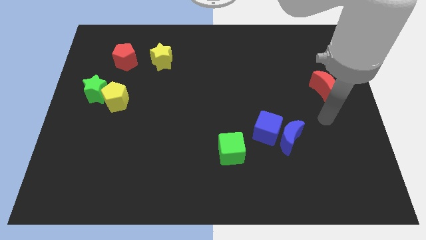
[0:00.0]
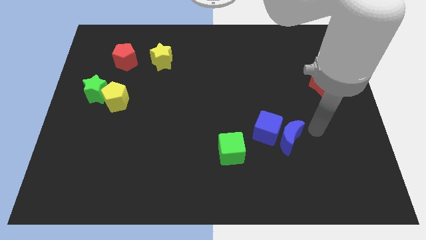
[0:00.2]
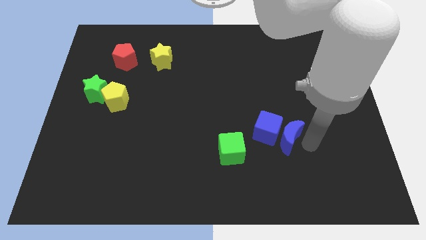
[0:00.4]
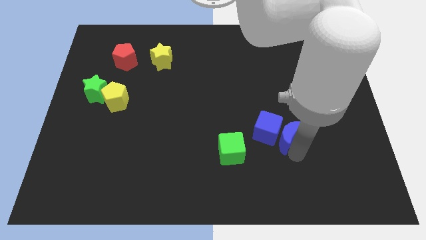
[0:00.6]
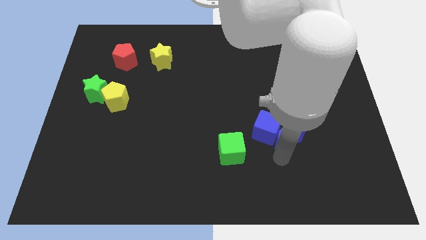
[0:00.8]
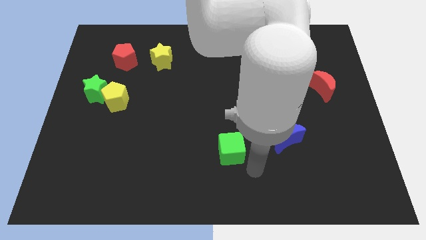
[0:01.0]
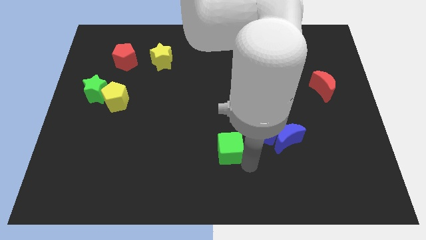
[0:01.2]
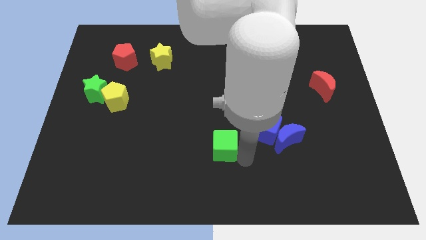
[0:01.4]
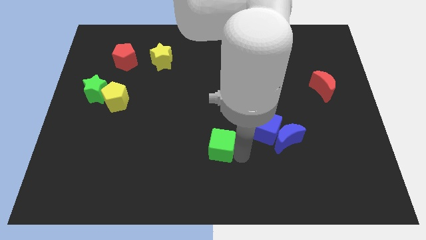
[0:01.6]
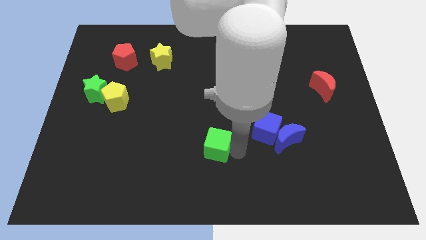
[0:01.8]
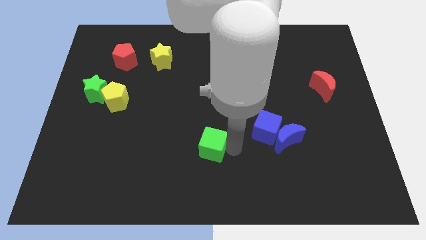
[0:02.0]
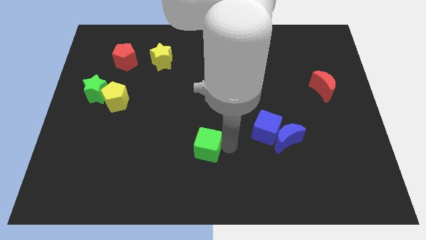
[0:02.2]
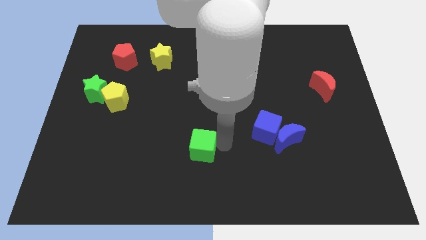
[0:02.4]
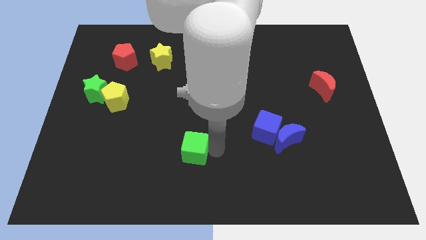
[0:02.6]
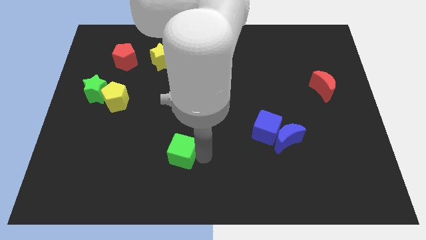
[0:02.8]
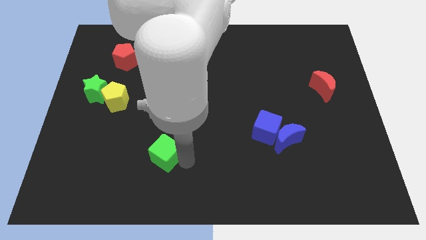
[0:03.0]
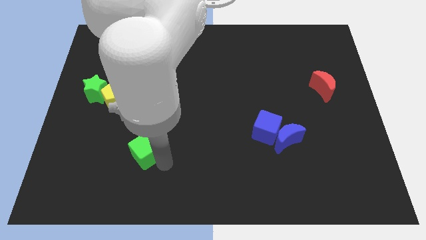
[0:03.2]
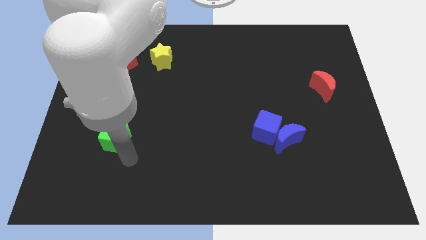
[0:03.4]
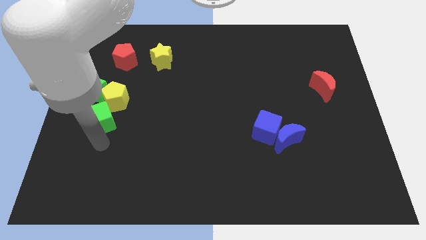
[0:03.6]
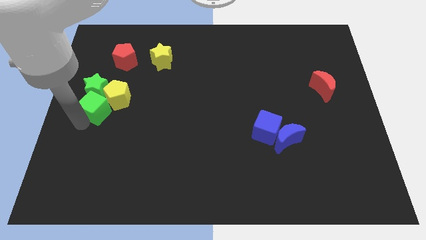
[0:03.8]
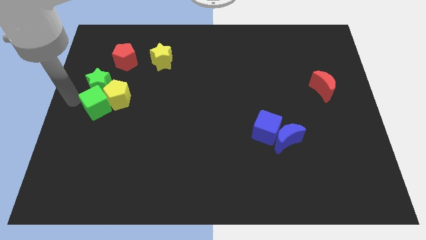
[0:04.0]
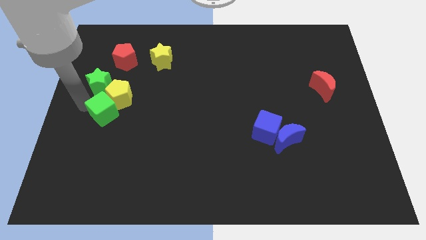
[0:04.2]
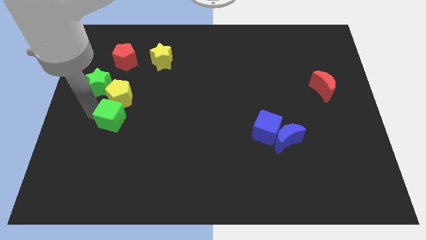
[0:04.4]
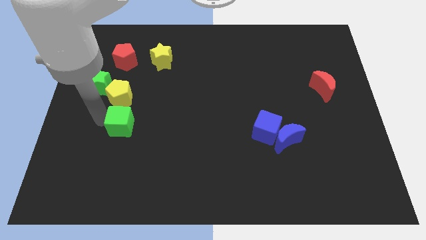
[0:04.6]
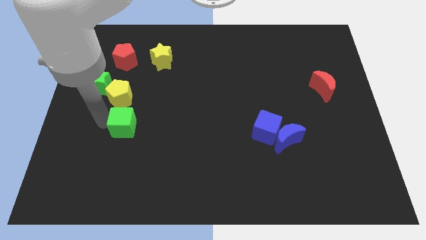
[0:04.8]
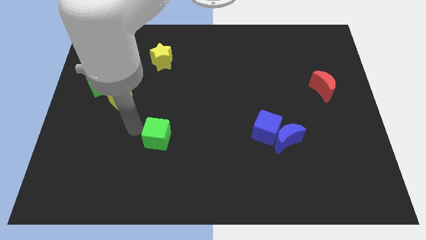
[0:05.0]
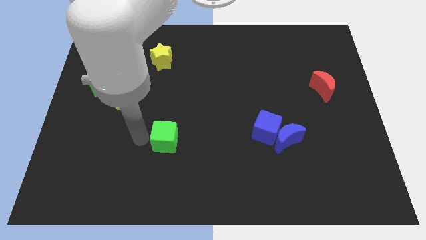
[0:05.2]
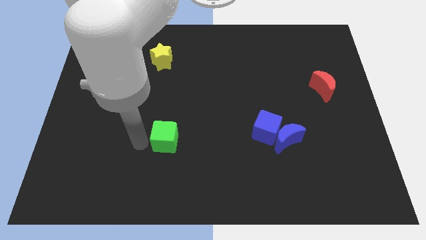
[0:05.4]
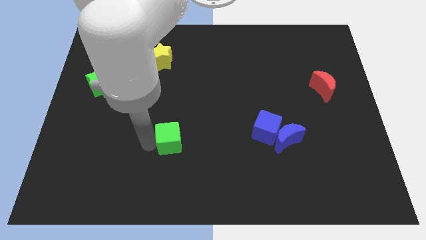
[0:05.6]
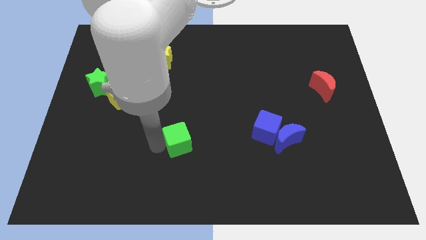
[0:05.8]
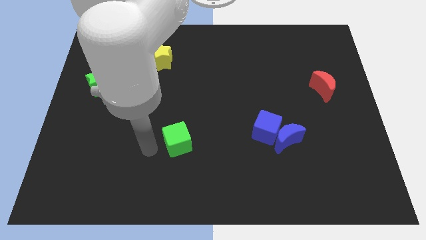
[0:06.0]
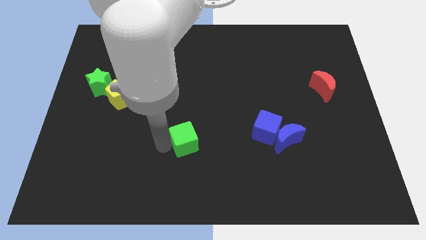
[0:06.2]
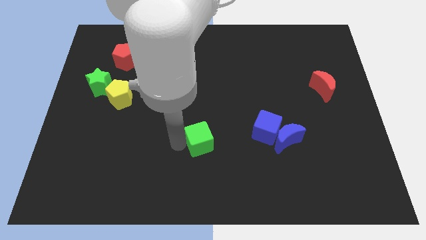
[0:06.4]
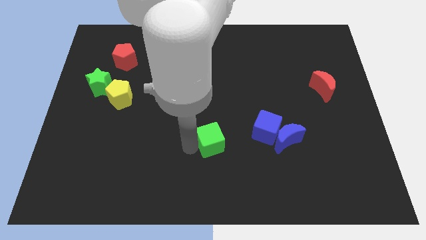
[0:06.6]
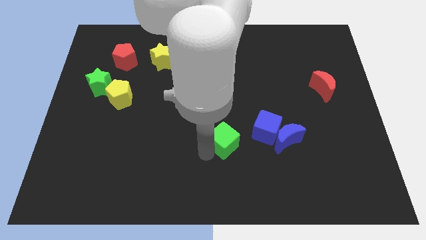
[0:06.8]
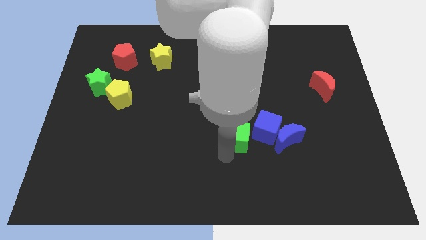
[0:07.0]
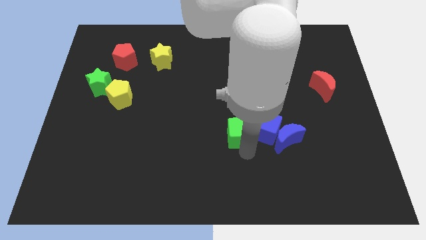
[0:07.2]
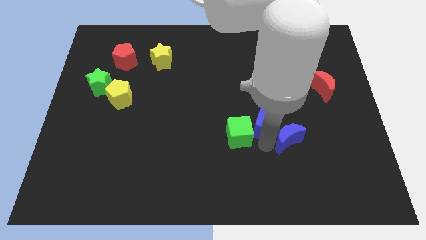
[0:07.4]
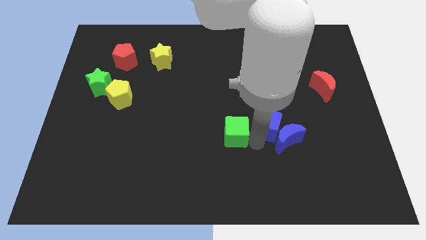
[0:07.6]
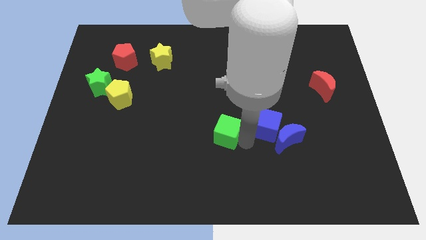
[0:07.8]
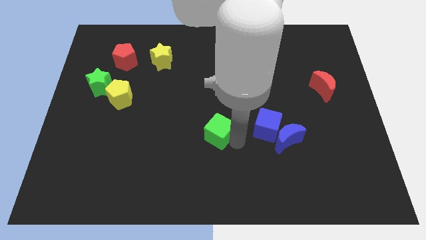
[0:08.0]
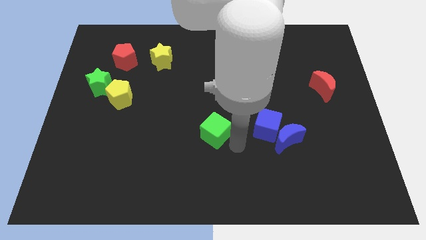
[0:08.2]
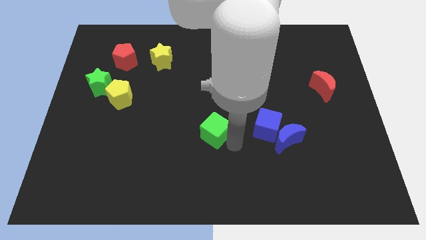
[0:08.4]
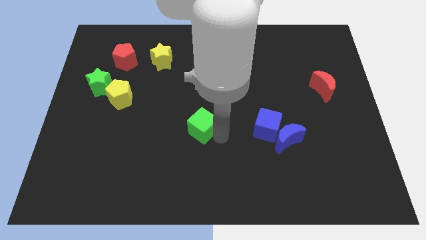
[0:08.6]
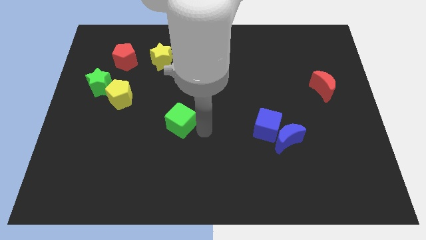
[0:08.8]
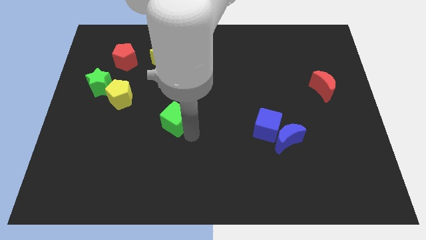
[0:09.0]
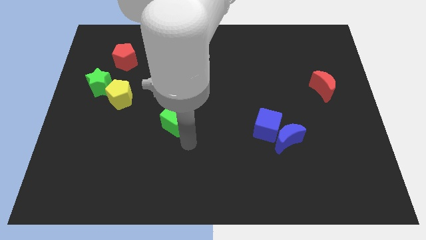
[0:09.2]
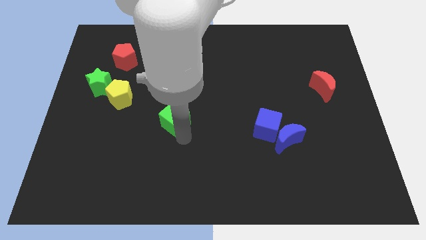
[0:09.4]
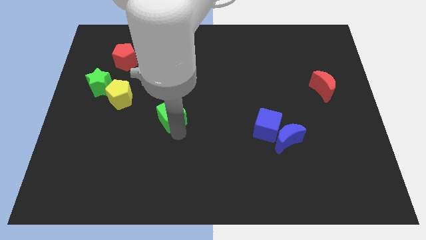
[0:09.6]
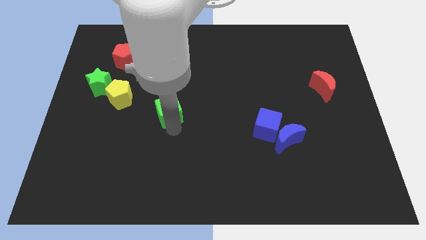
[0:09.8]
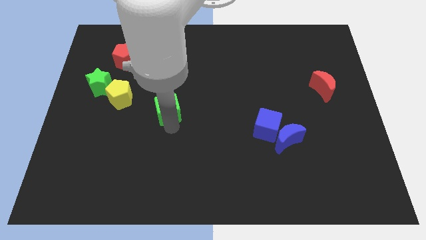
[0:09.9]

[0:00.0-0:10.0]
move the green cube just right of the yellow pentagon

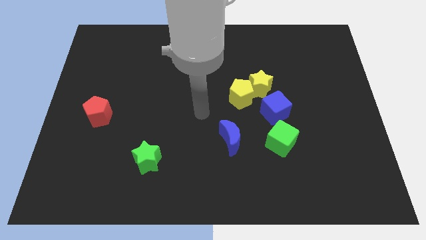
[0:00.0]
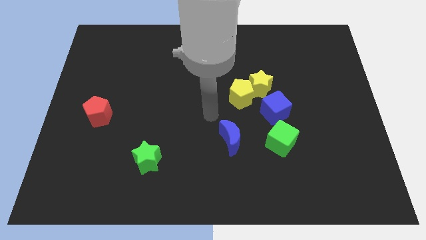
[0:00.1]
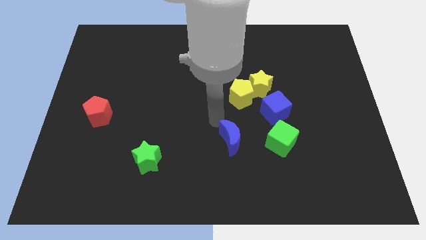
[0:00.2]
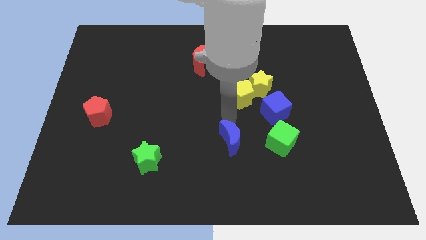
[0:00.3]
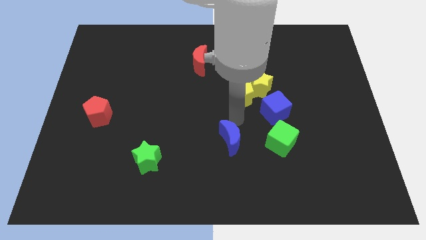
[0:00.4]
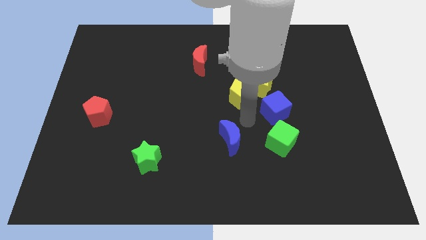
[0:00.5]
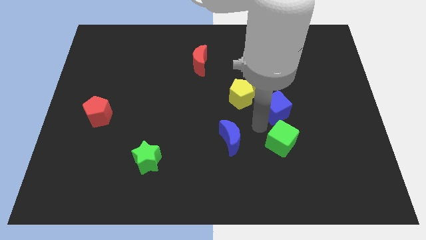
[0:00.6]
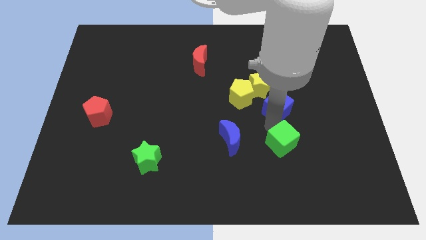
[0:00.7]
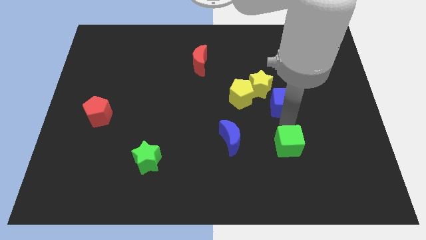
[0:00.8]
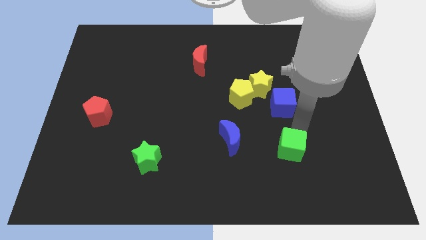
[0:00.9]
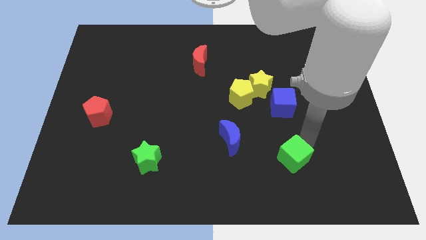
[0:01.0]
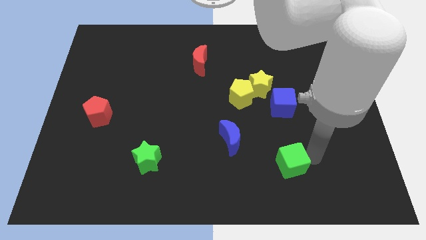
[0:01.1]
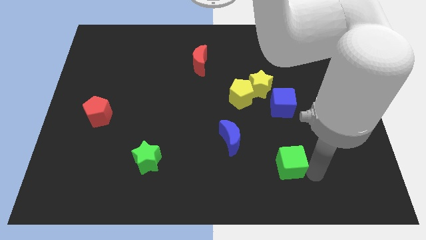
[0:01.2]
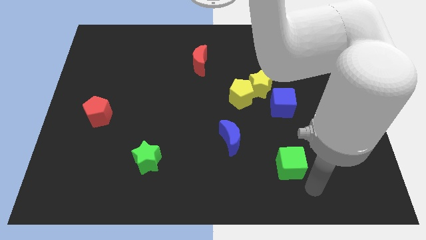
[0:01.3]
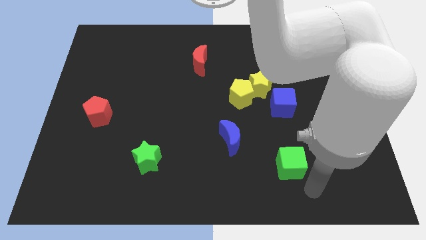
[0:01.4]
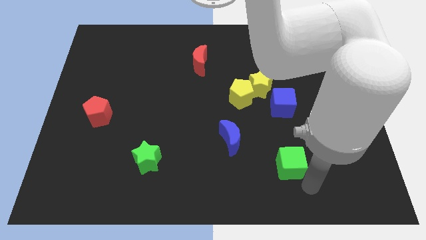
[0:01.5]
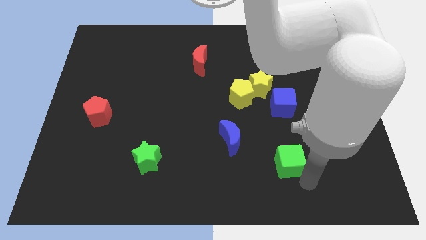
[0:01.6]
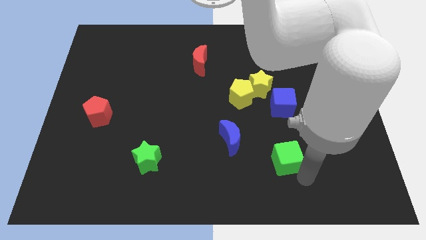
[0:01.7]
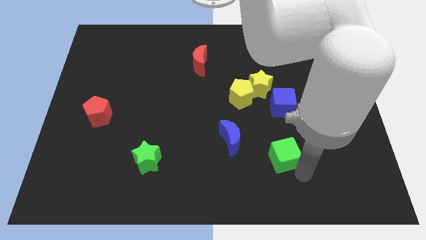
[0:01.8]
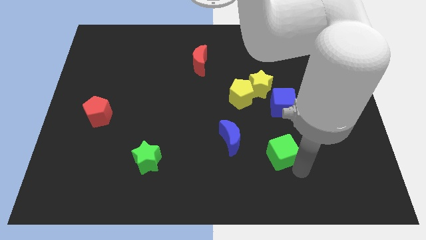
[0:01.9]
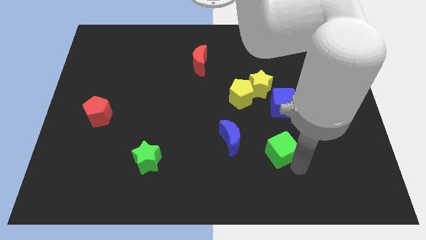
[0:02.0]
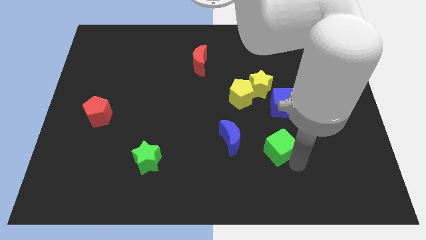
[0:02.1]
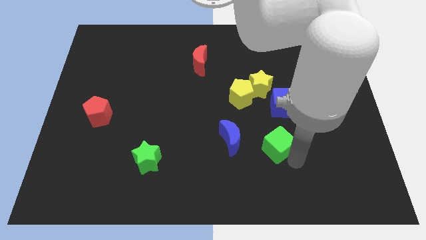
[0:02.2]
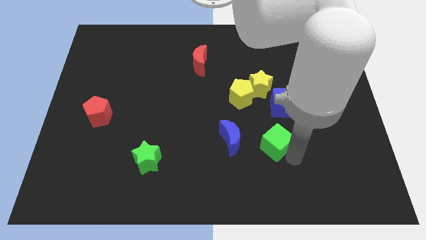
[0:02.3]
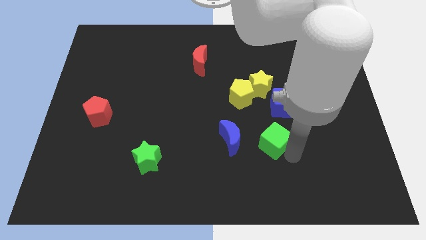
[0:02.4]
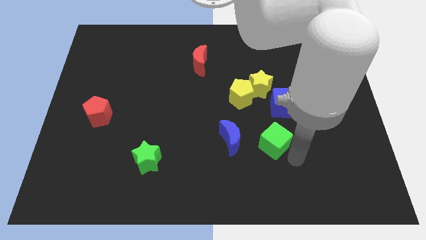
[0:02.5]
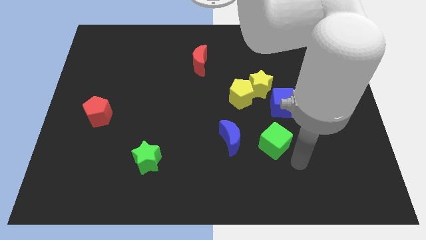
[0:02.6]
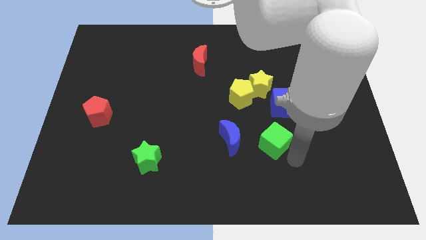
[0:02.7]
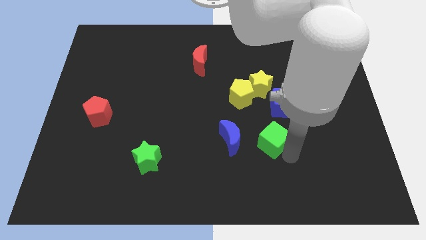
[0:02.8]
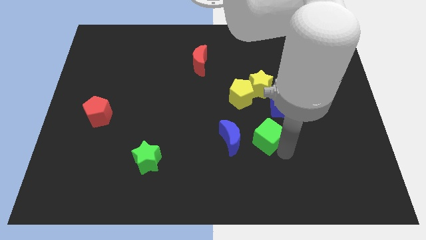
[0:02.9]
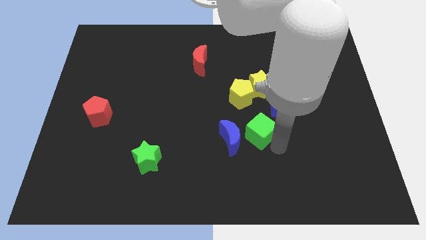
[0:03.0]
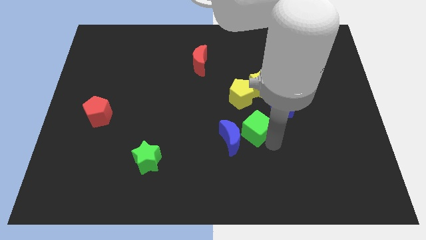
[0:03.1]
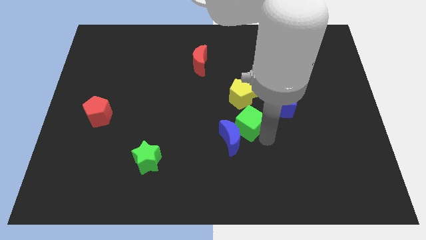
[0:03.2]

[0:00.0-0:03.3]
push the green cube to the top side of the blue moon
